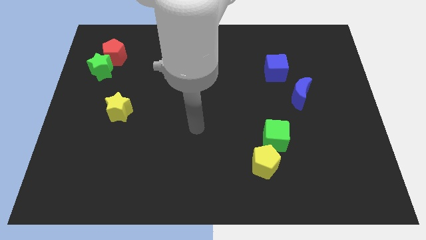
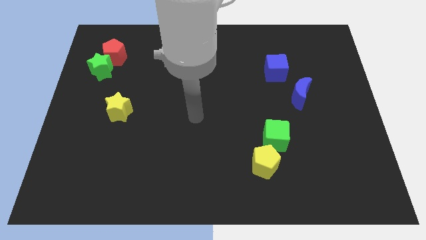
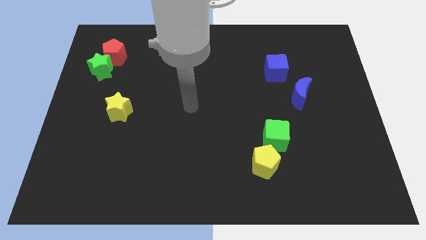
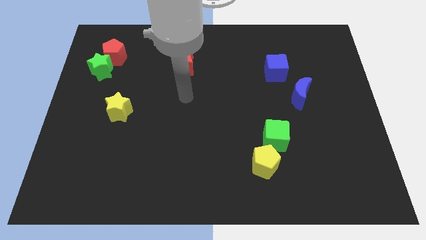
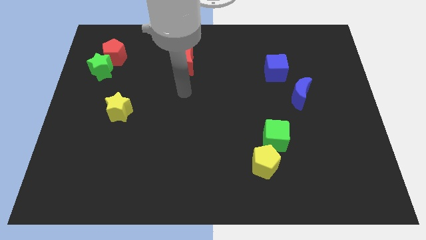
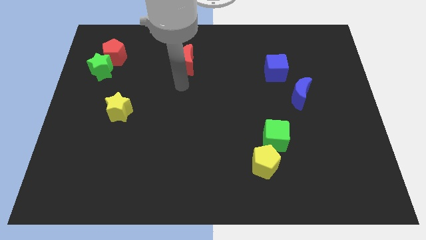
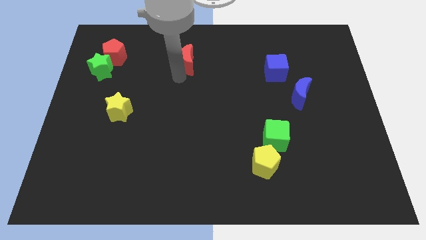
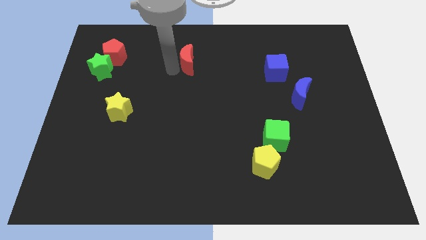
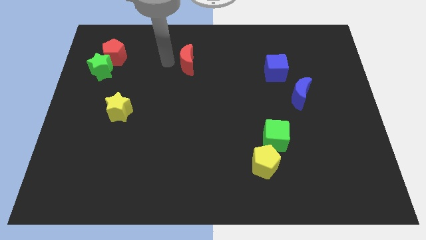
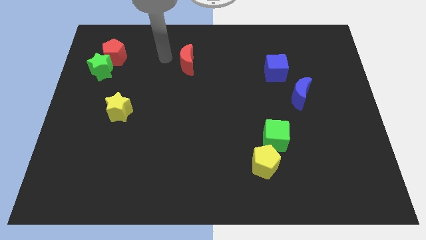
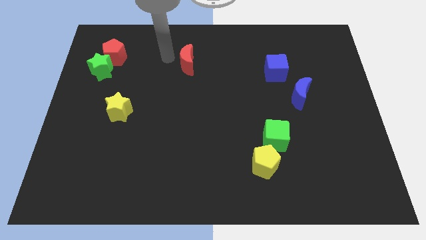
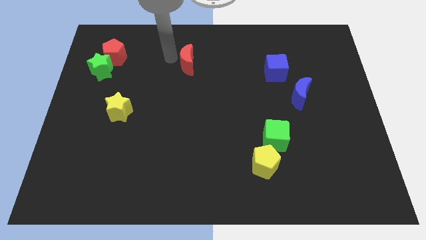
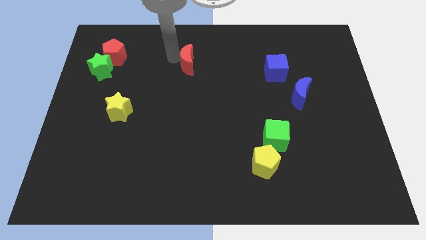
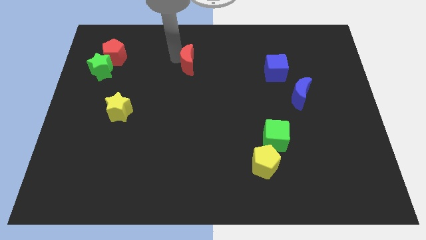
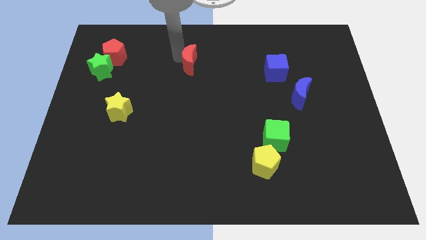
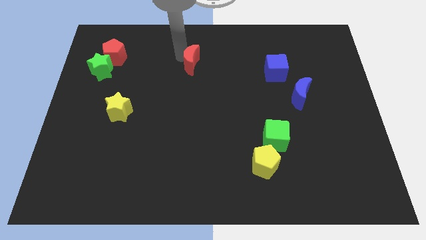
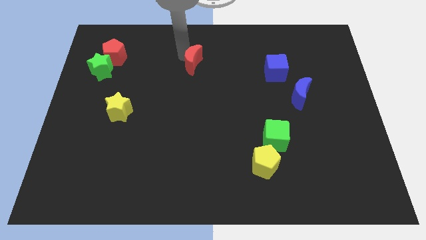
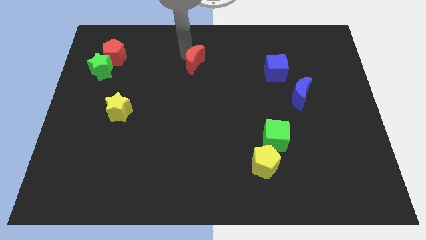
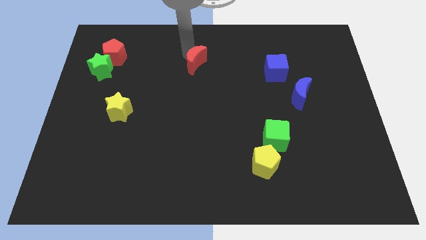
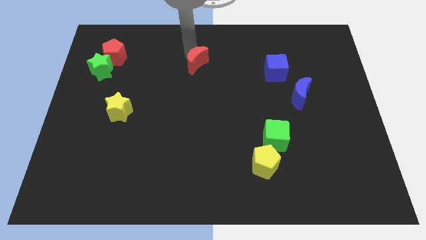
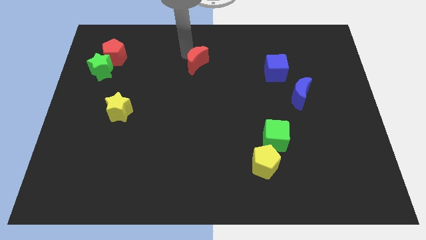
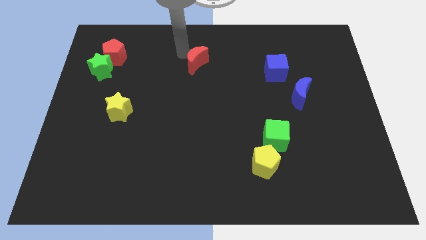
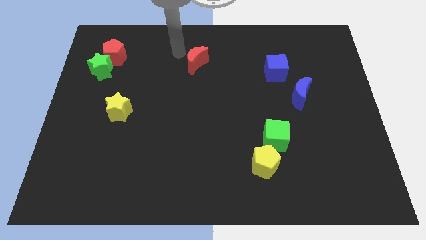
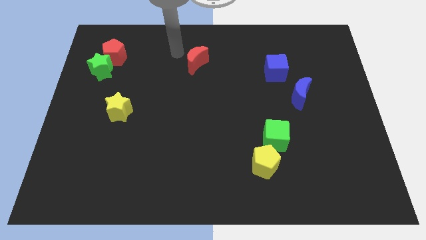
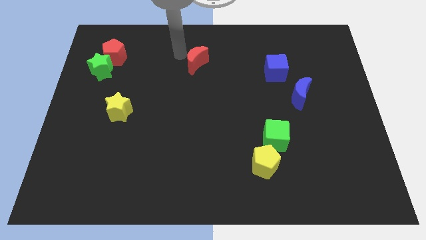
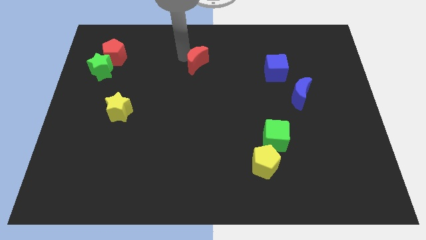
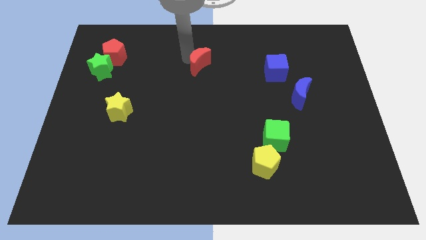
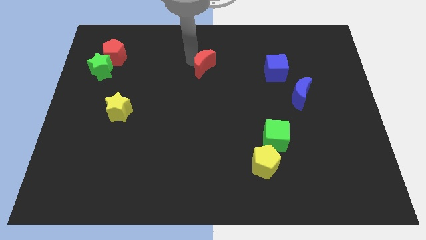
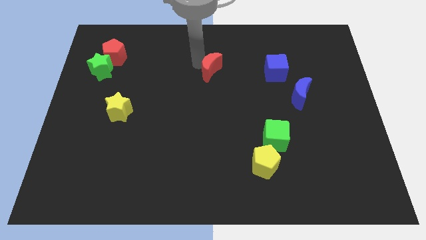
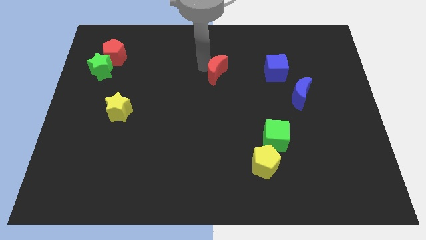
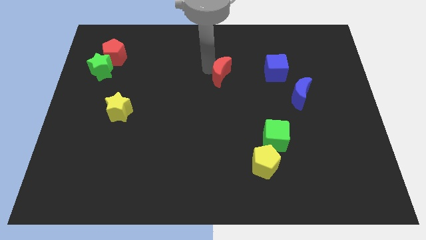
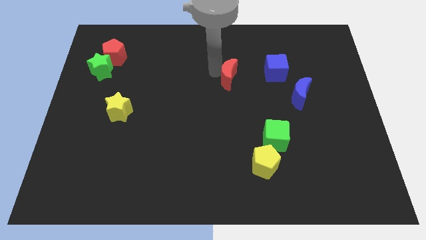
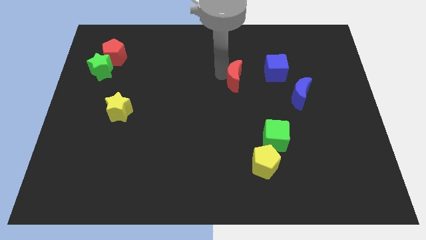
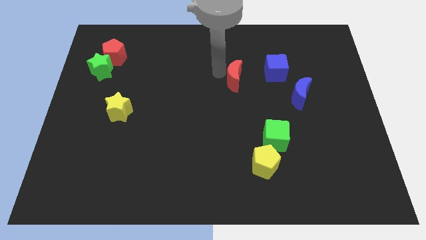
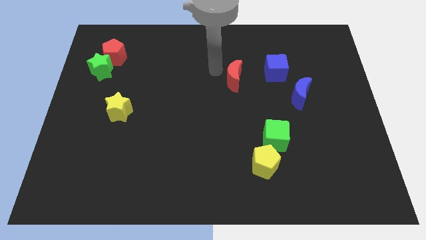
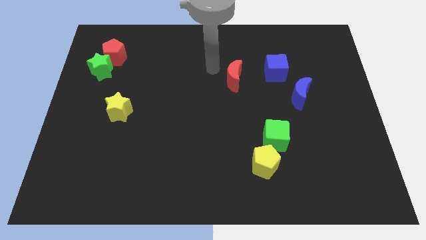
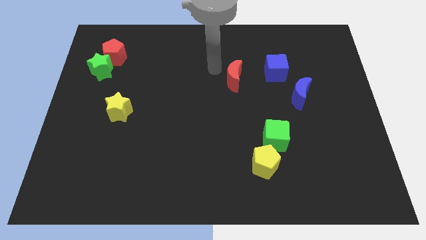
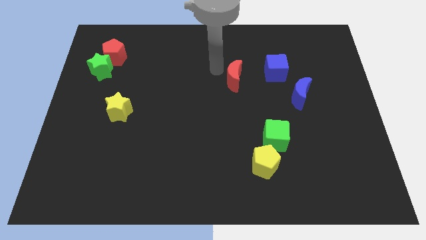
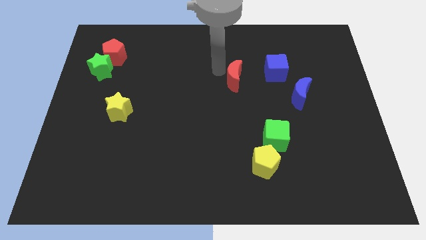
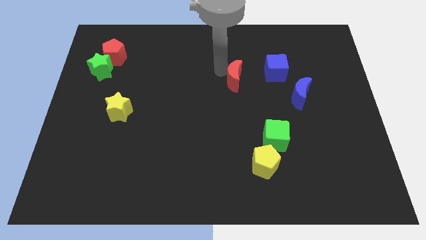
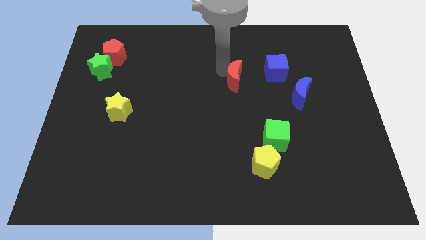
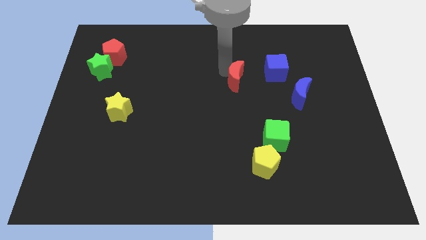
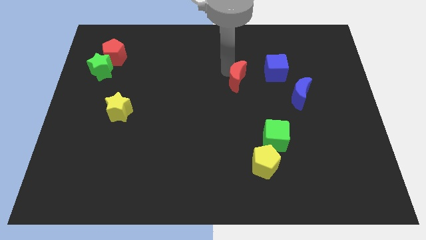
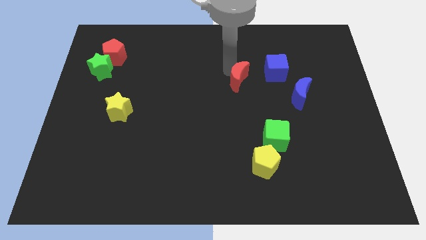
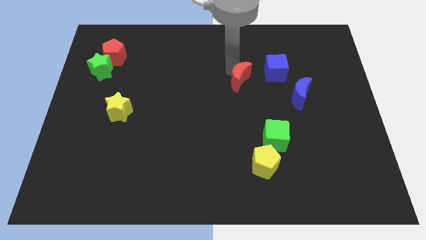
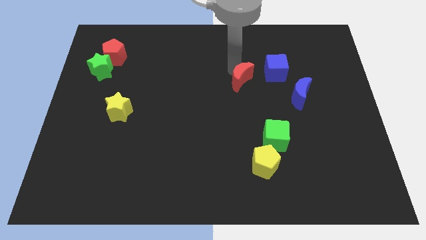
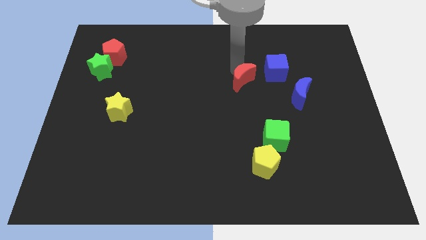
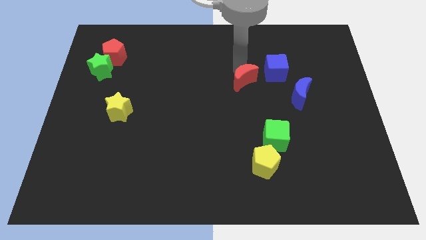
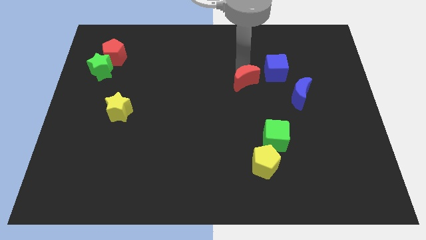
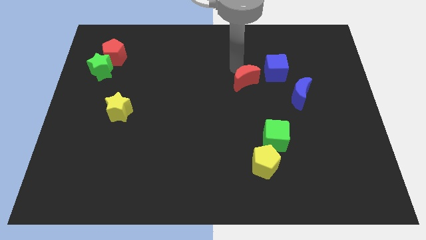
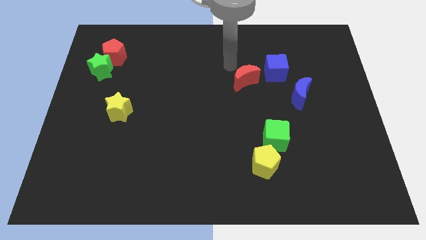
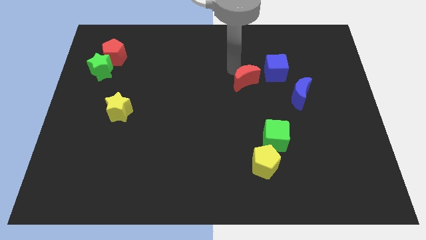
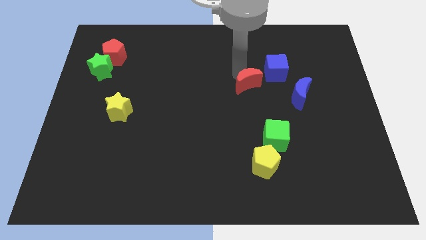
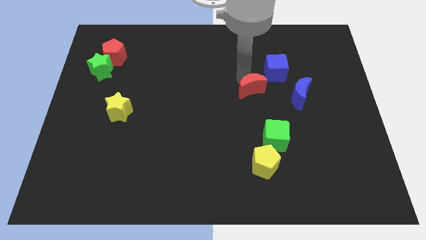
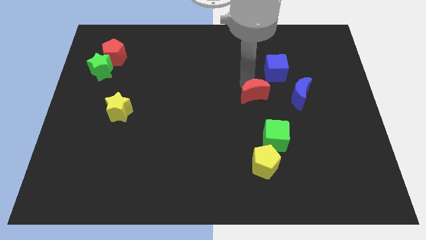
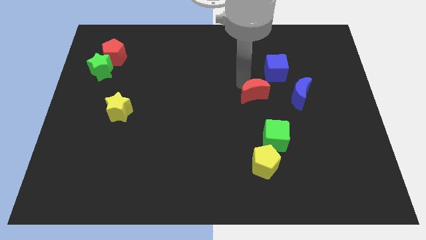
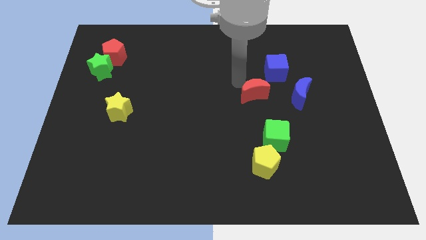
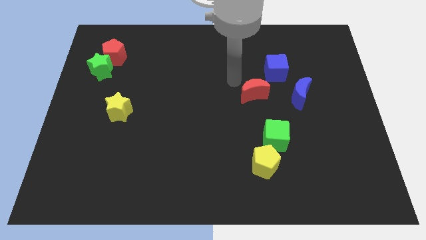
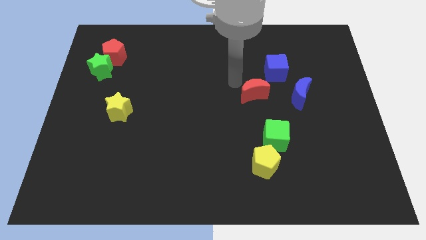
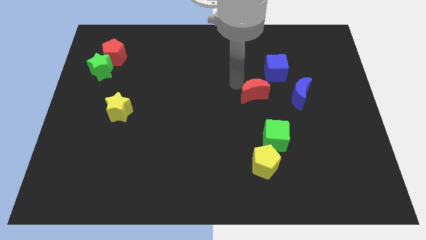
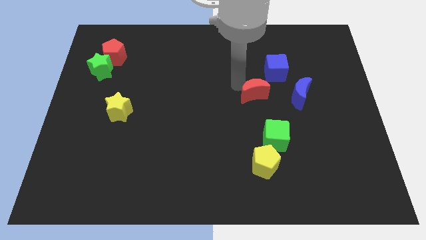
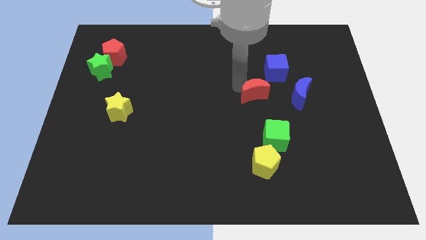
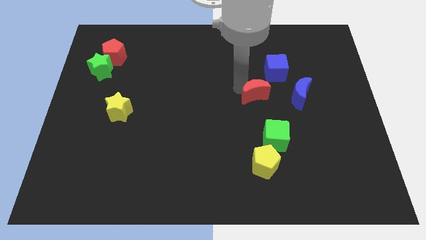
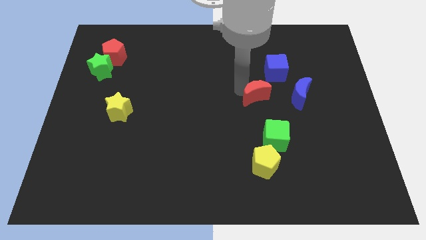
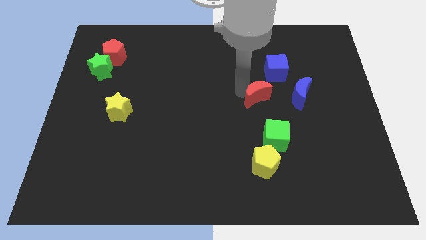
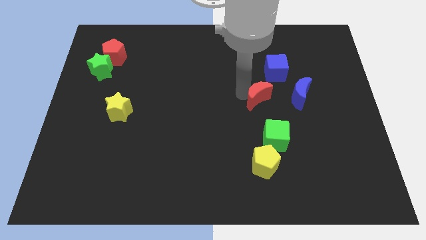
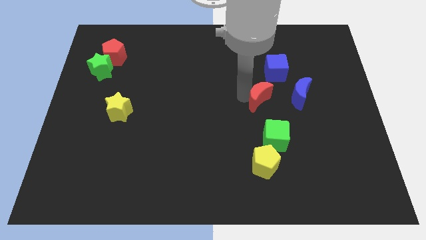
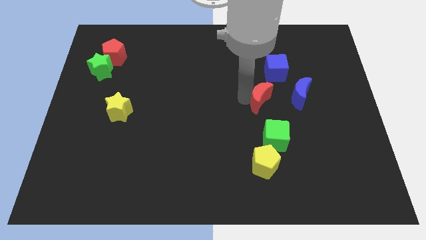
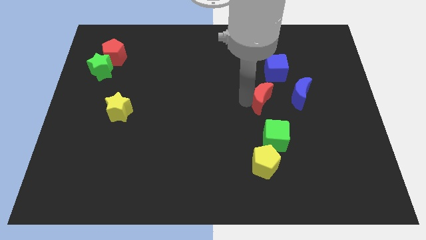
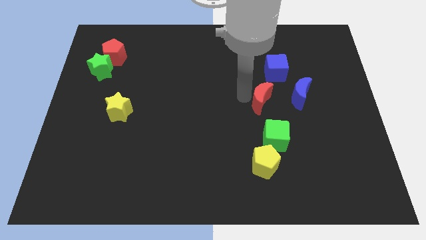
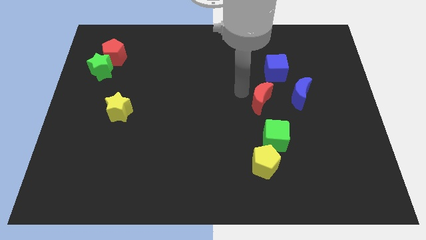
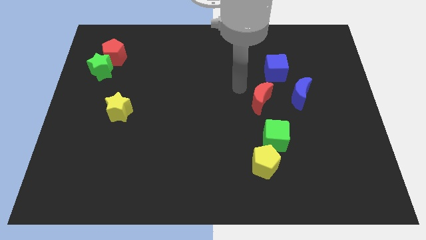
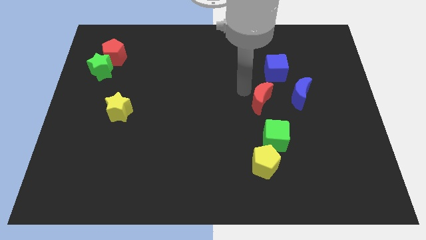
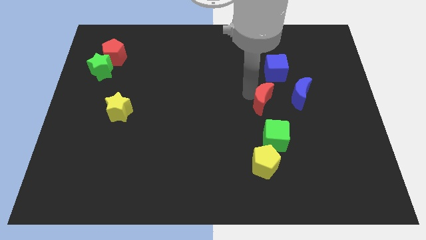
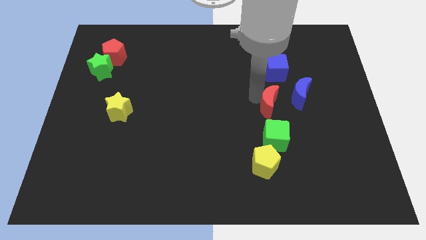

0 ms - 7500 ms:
move the red moon diagonally down and to the left of the blue moon
